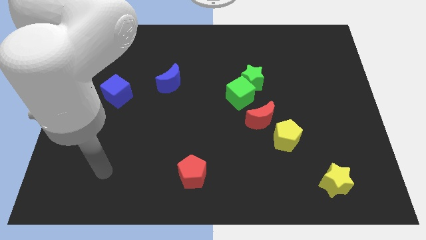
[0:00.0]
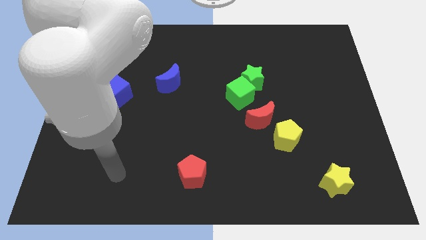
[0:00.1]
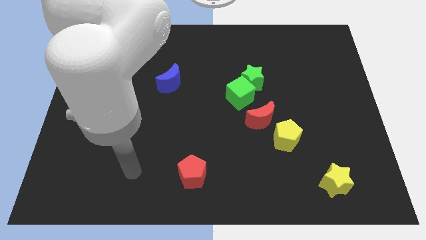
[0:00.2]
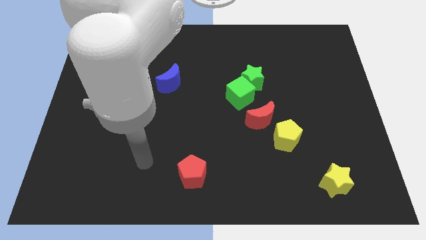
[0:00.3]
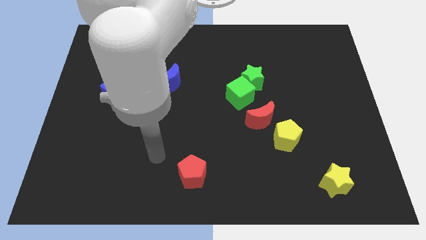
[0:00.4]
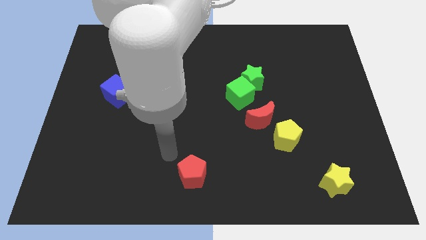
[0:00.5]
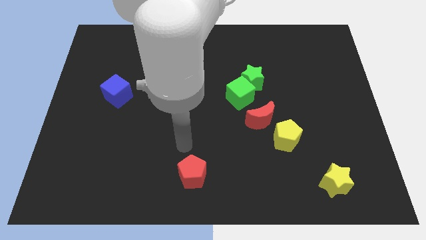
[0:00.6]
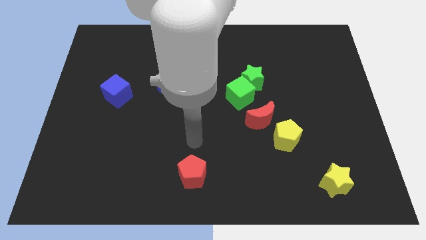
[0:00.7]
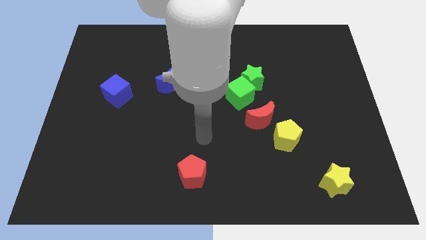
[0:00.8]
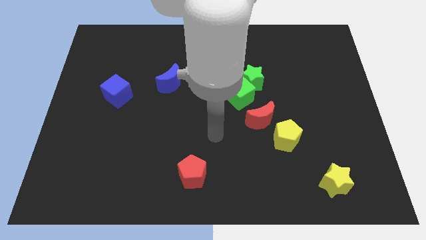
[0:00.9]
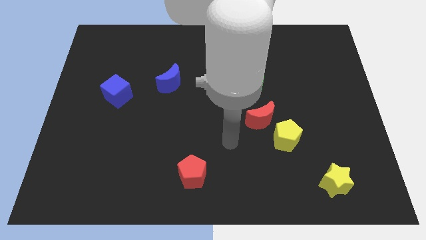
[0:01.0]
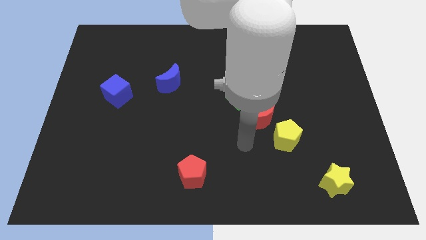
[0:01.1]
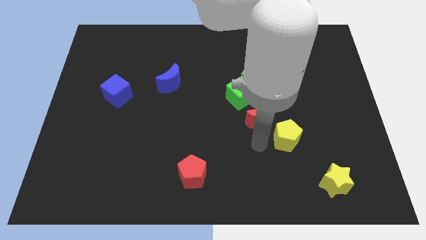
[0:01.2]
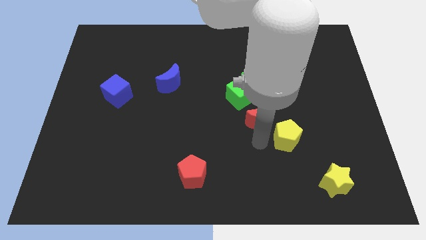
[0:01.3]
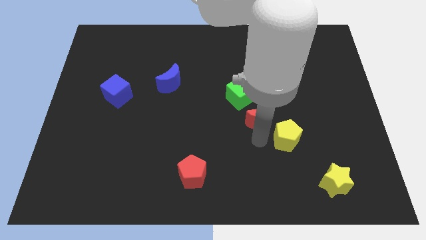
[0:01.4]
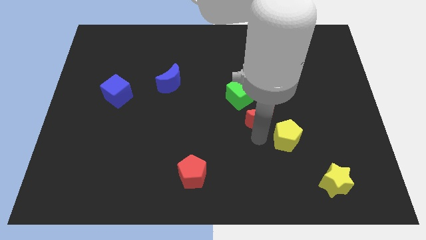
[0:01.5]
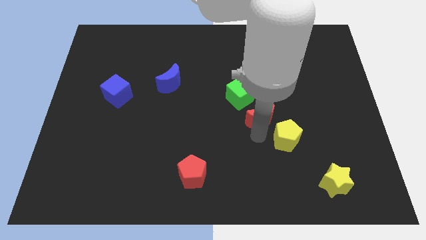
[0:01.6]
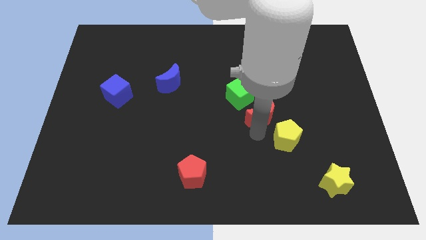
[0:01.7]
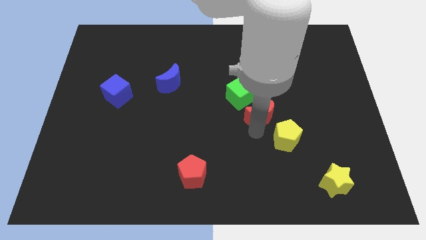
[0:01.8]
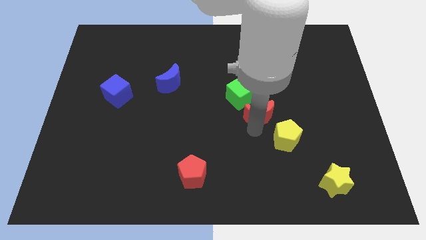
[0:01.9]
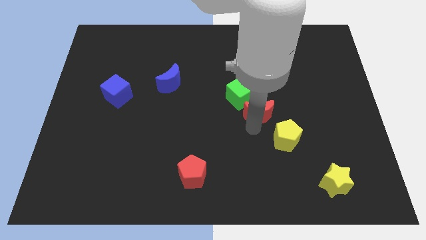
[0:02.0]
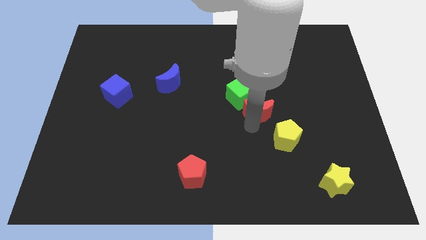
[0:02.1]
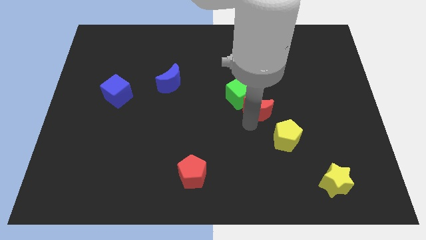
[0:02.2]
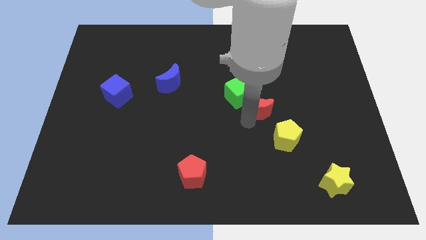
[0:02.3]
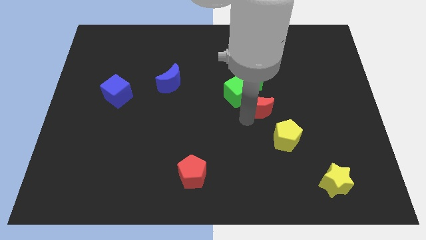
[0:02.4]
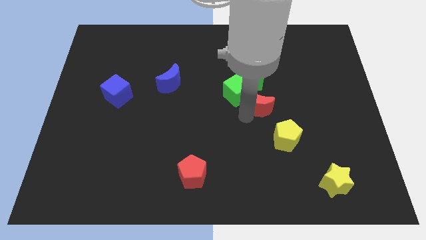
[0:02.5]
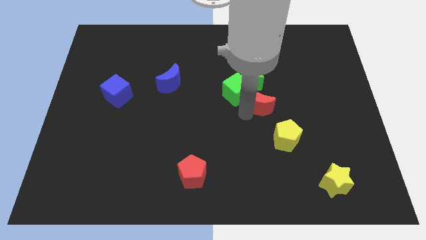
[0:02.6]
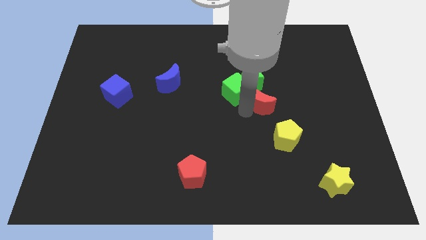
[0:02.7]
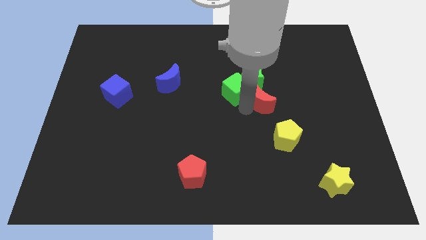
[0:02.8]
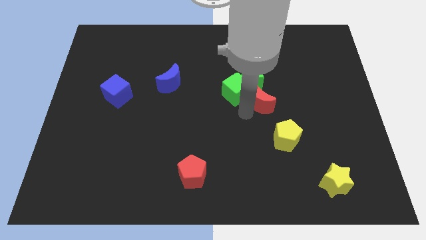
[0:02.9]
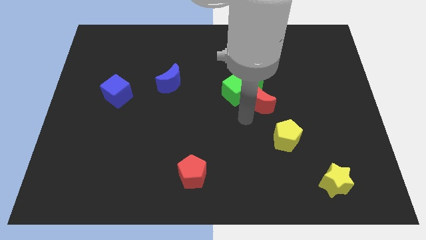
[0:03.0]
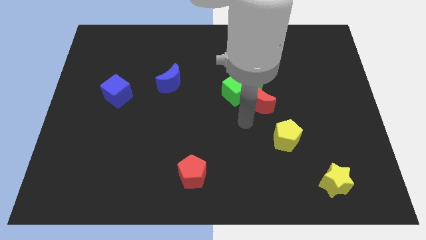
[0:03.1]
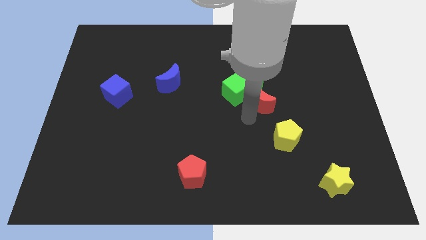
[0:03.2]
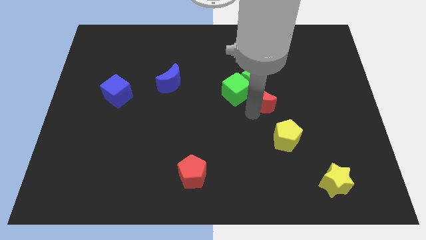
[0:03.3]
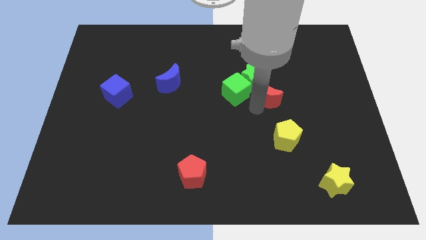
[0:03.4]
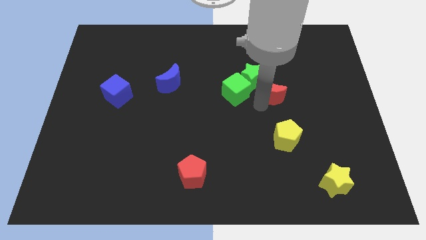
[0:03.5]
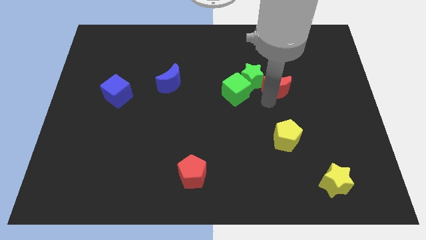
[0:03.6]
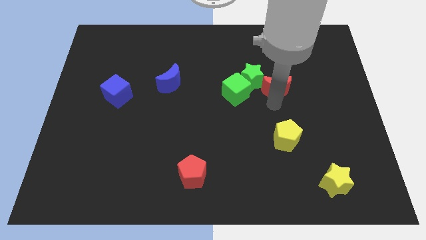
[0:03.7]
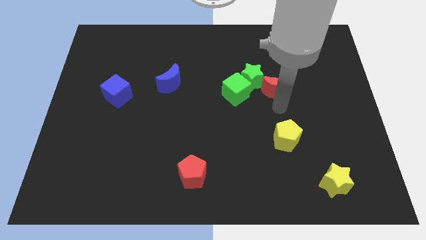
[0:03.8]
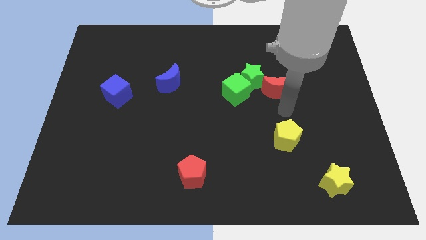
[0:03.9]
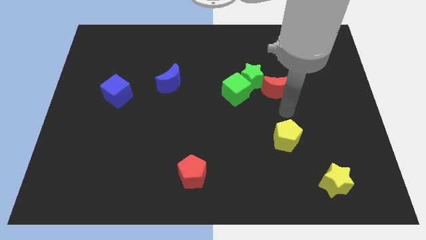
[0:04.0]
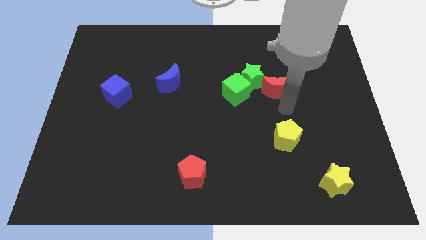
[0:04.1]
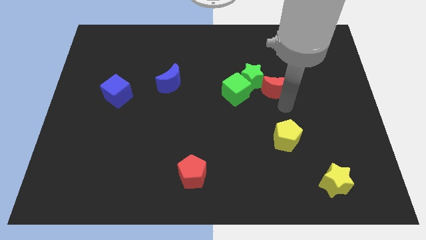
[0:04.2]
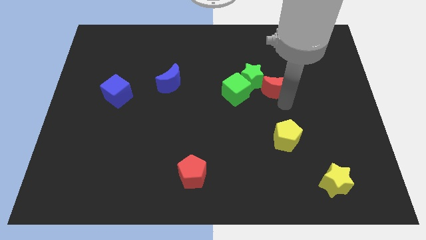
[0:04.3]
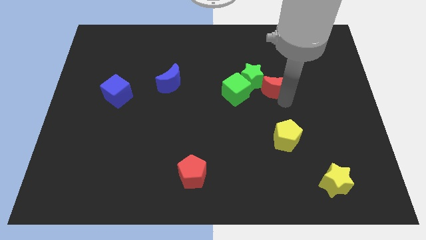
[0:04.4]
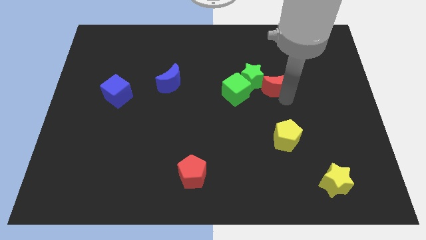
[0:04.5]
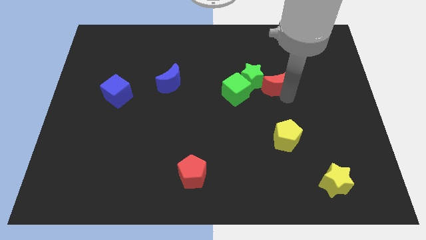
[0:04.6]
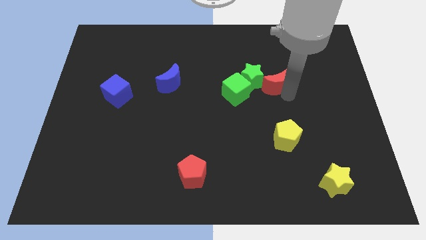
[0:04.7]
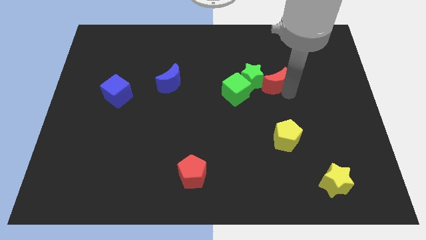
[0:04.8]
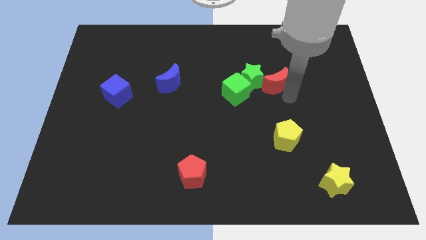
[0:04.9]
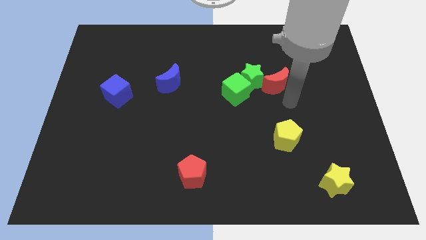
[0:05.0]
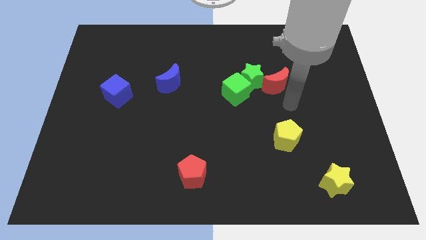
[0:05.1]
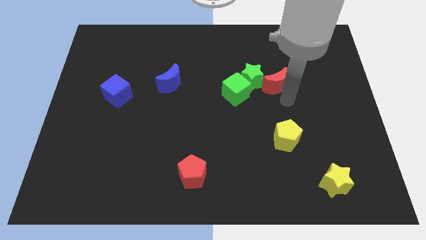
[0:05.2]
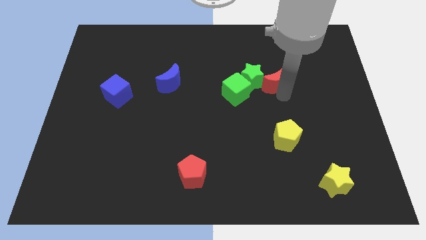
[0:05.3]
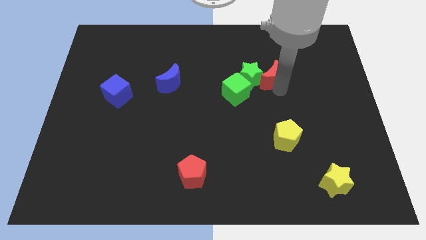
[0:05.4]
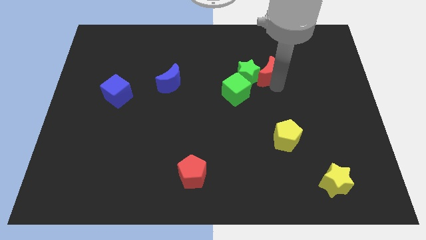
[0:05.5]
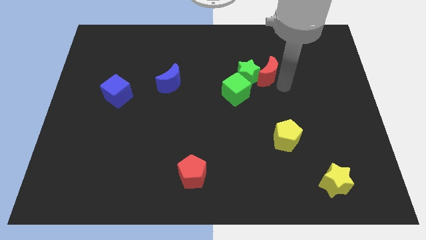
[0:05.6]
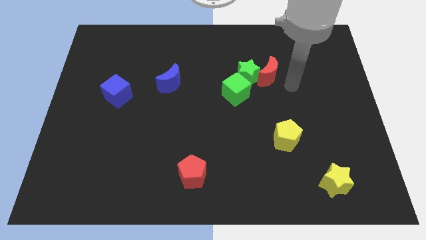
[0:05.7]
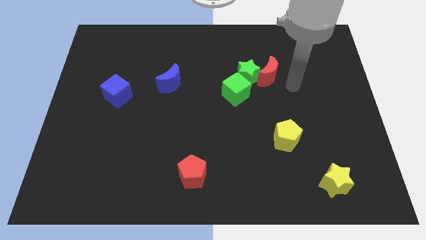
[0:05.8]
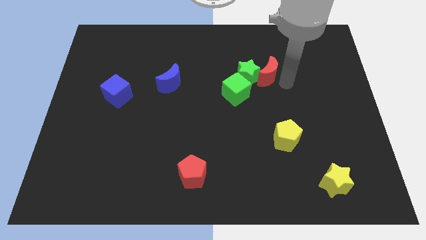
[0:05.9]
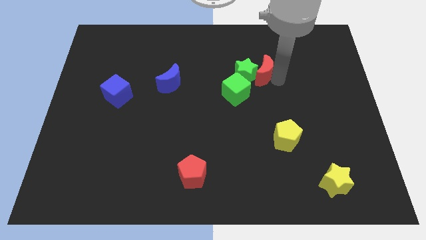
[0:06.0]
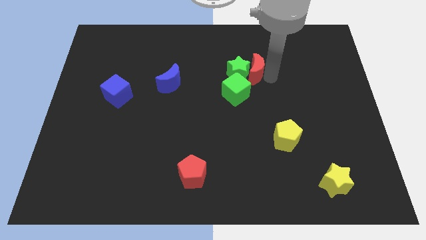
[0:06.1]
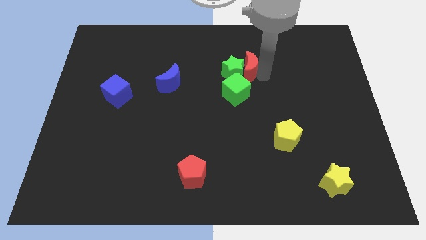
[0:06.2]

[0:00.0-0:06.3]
slide the red moon above the green cube

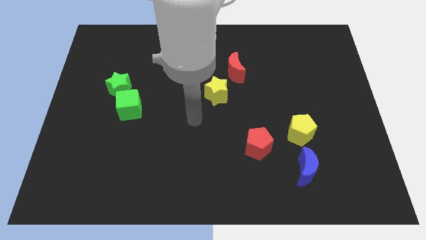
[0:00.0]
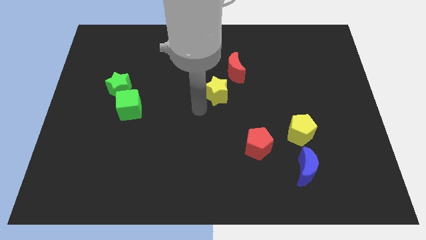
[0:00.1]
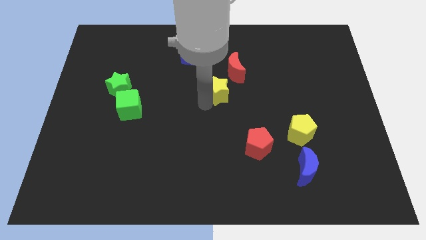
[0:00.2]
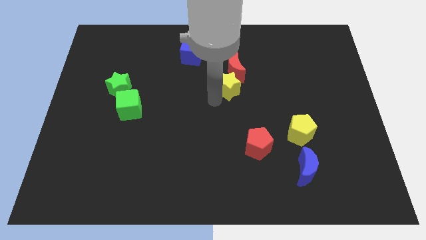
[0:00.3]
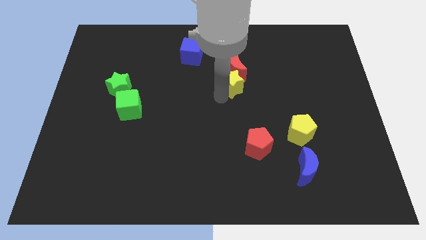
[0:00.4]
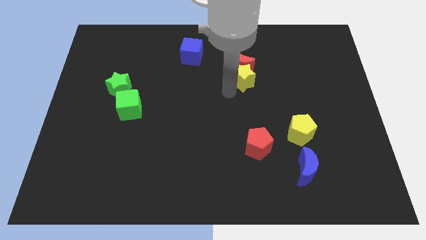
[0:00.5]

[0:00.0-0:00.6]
push the red moon to the right side of the blue cube
